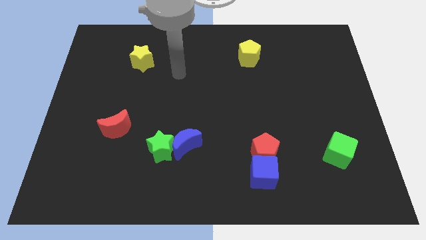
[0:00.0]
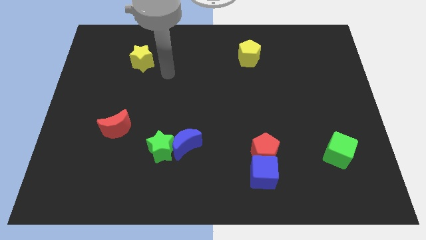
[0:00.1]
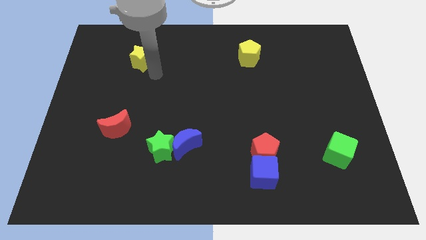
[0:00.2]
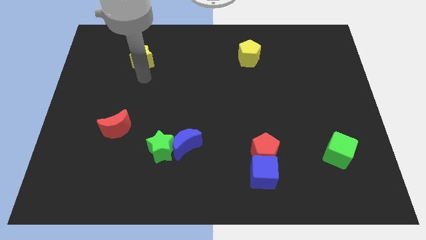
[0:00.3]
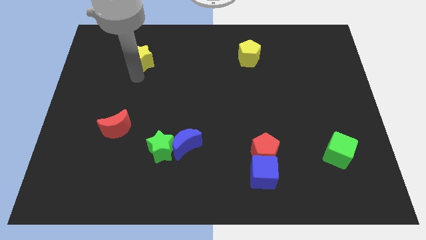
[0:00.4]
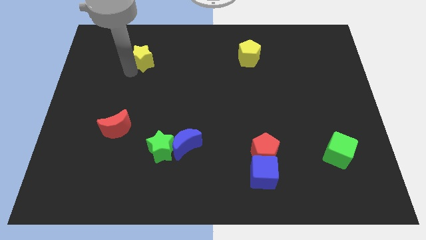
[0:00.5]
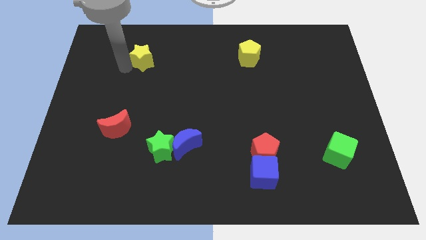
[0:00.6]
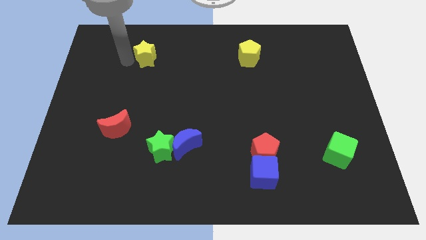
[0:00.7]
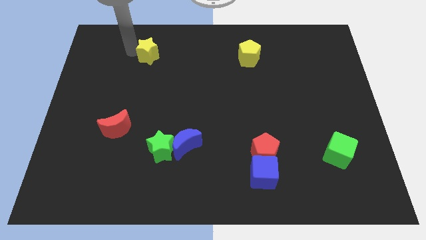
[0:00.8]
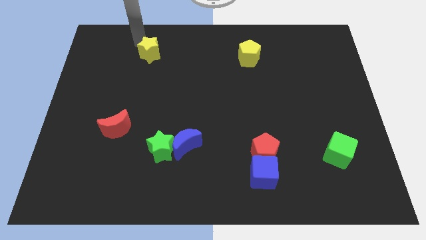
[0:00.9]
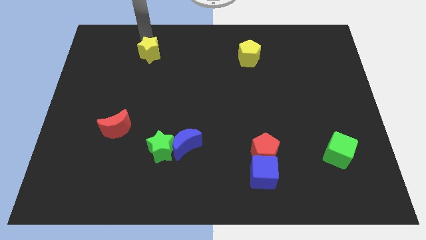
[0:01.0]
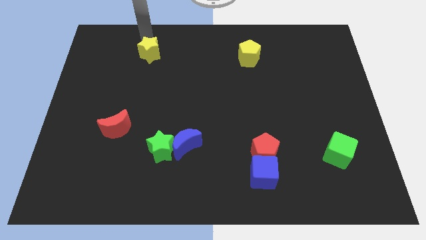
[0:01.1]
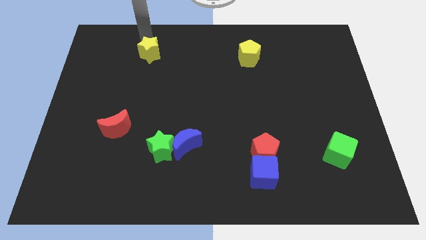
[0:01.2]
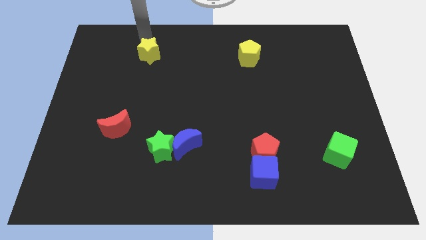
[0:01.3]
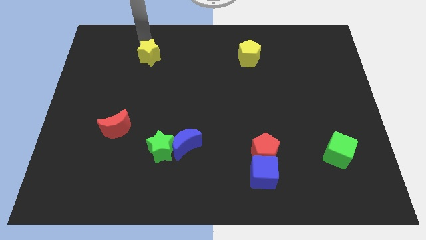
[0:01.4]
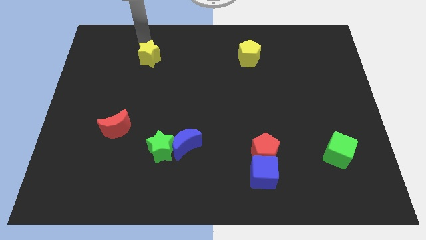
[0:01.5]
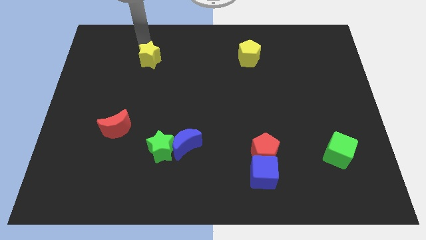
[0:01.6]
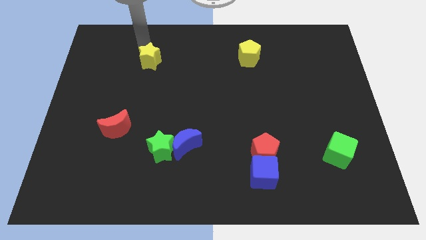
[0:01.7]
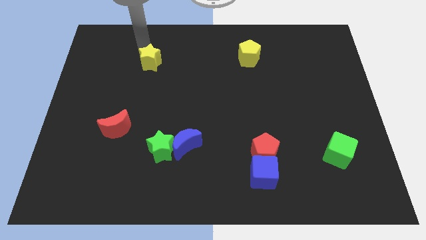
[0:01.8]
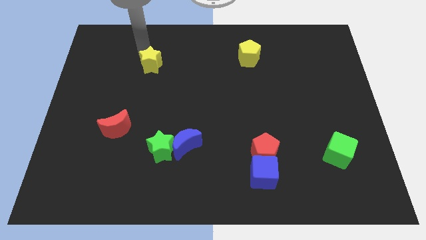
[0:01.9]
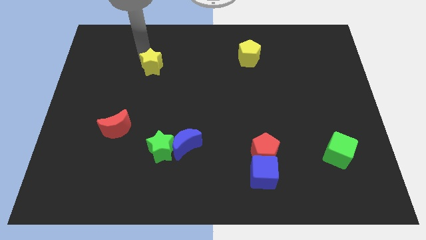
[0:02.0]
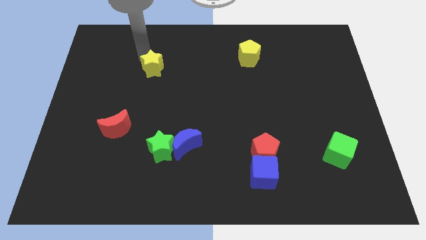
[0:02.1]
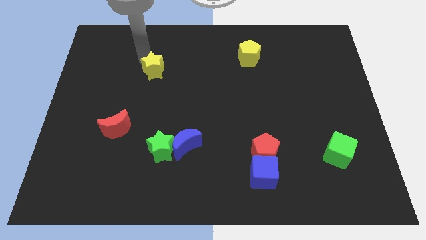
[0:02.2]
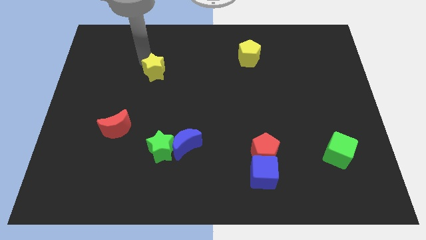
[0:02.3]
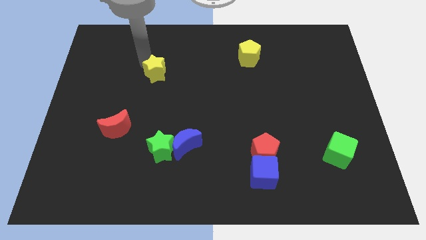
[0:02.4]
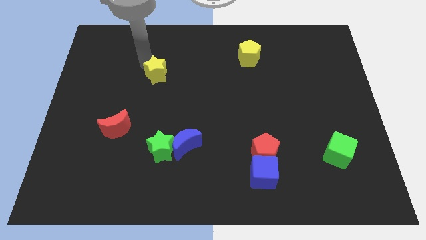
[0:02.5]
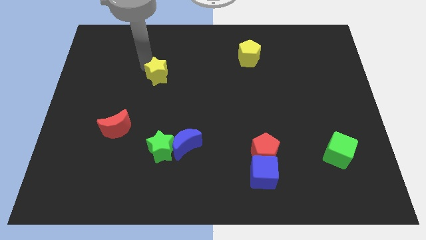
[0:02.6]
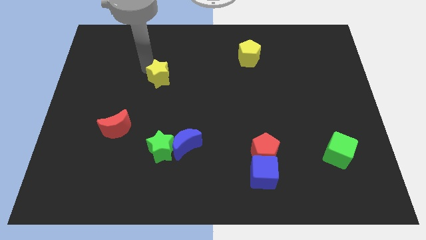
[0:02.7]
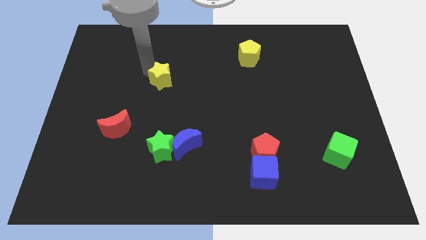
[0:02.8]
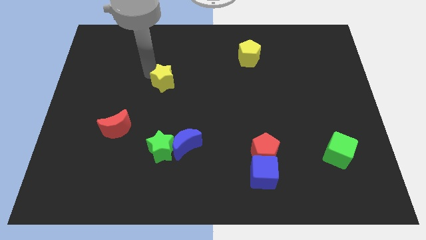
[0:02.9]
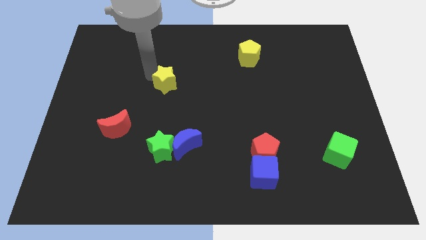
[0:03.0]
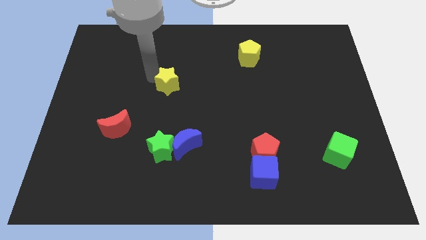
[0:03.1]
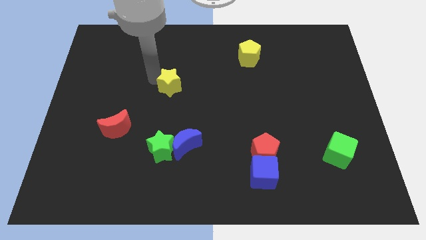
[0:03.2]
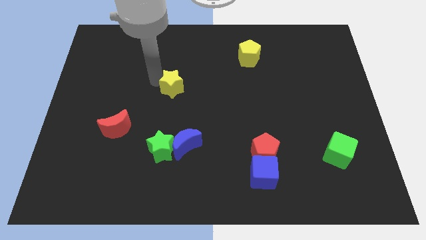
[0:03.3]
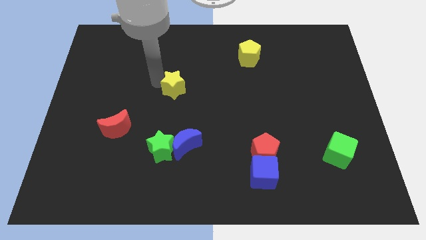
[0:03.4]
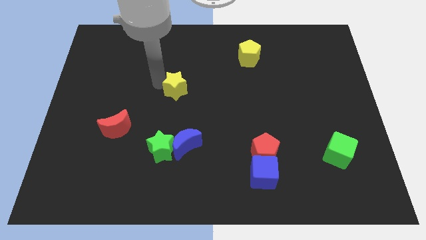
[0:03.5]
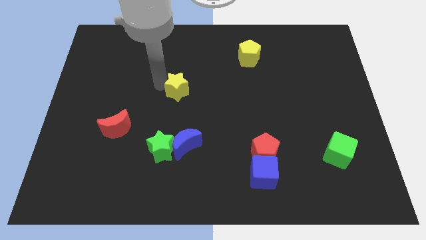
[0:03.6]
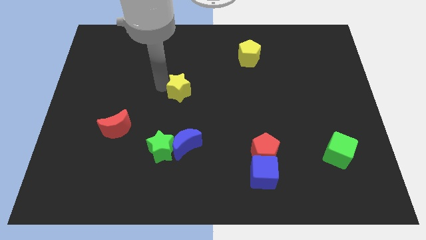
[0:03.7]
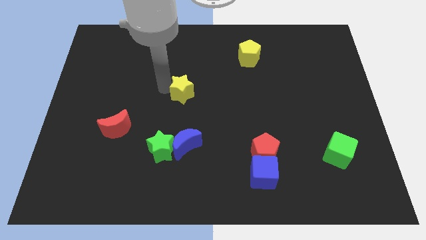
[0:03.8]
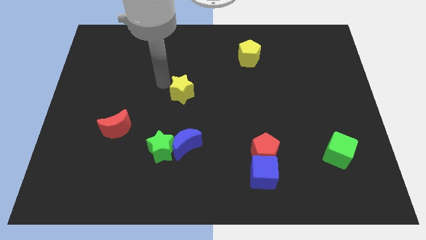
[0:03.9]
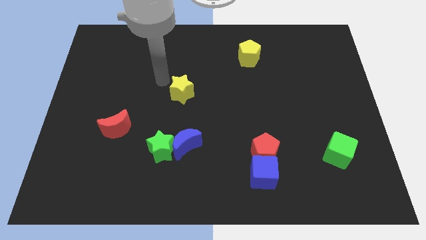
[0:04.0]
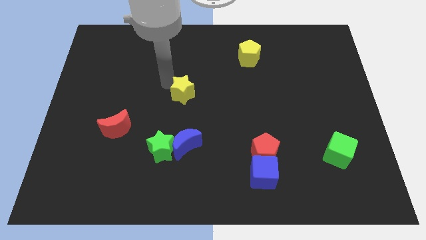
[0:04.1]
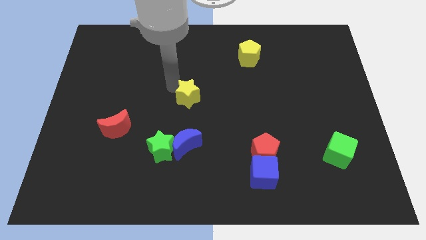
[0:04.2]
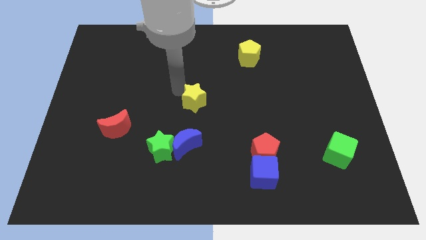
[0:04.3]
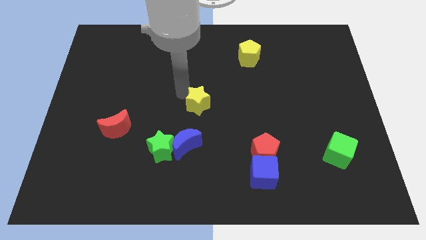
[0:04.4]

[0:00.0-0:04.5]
move the yellow star down and to the right

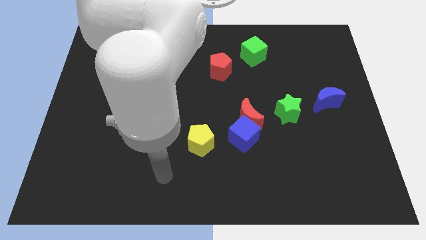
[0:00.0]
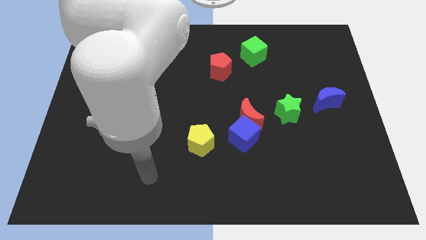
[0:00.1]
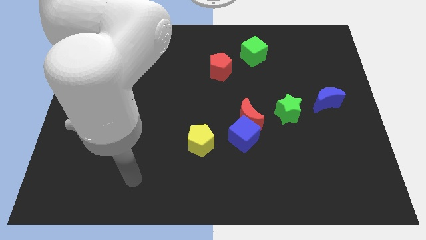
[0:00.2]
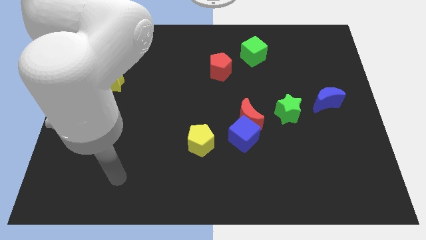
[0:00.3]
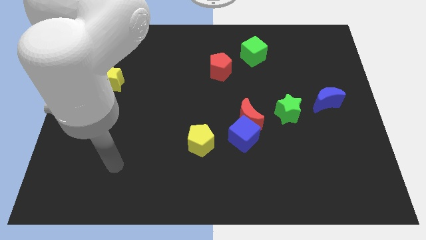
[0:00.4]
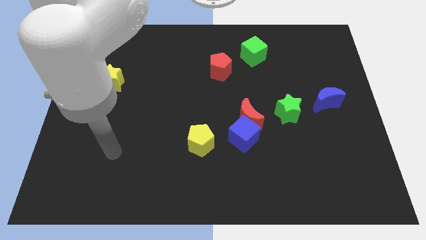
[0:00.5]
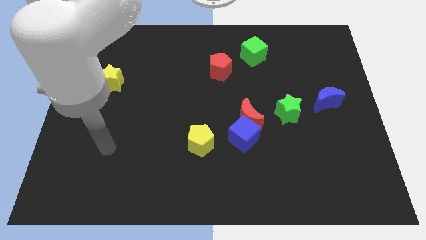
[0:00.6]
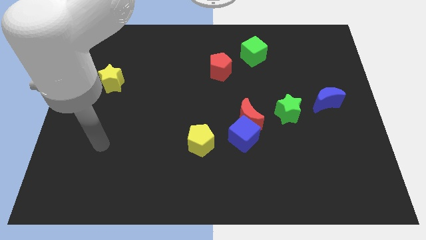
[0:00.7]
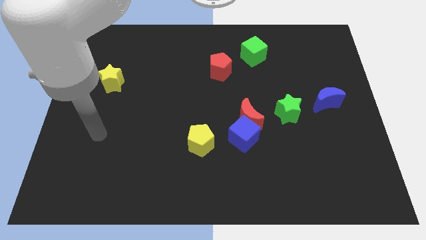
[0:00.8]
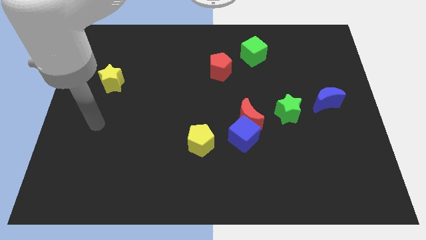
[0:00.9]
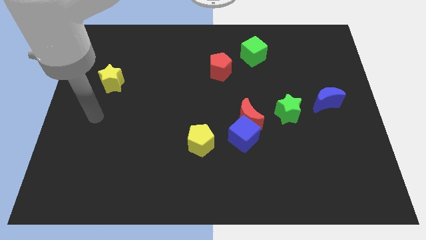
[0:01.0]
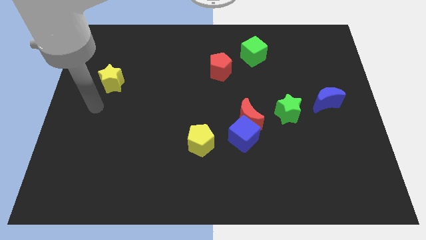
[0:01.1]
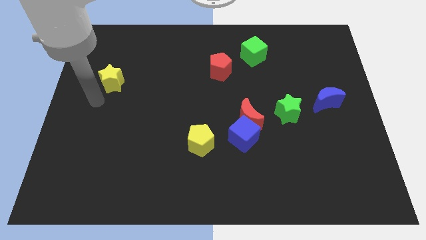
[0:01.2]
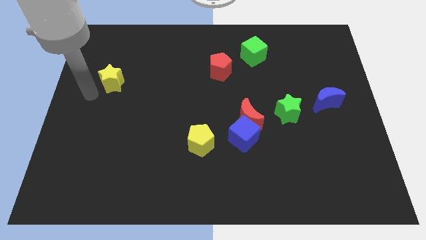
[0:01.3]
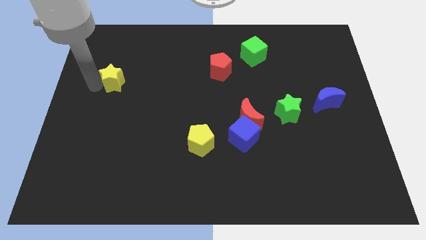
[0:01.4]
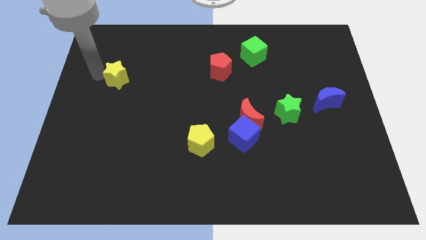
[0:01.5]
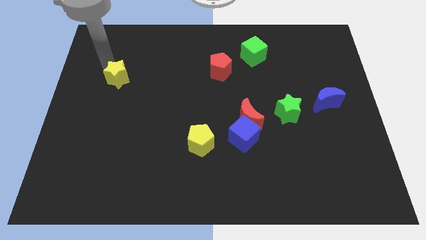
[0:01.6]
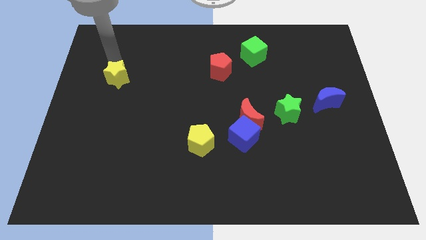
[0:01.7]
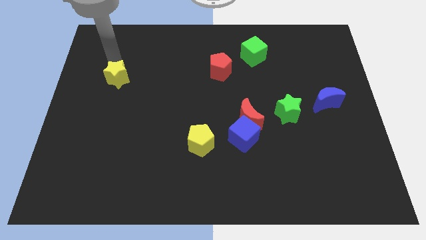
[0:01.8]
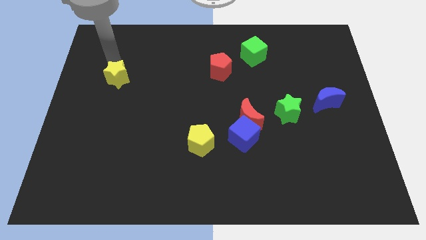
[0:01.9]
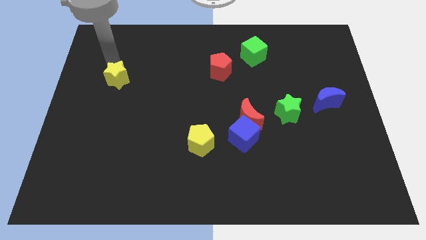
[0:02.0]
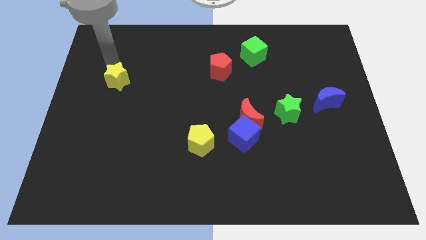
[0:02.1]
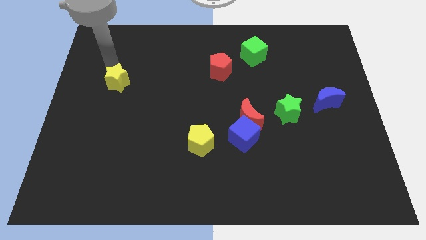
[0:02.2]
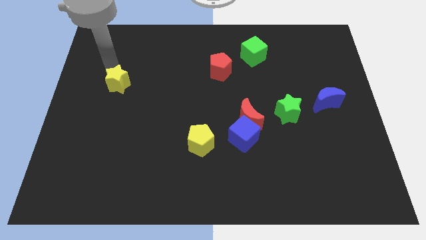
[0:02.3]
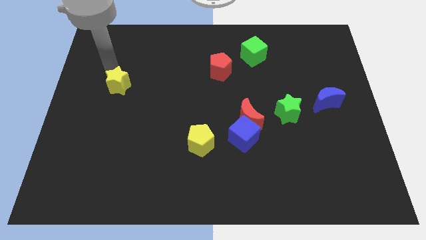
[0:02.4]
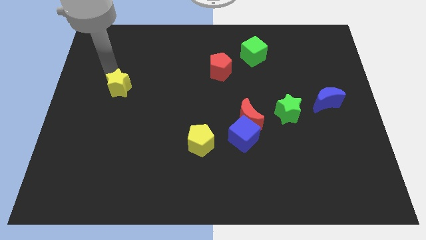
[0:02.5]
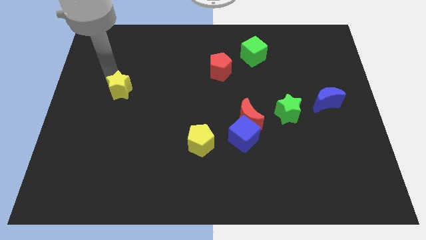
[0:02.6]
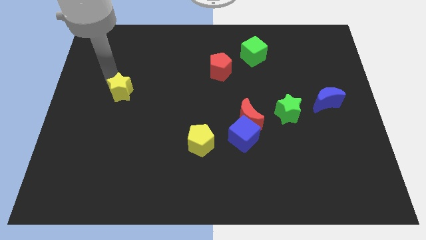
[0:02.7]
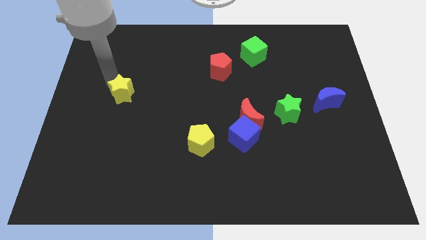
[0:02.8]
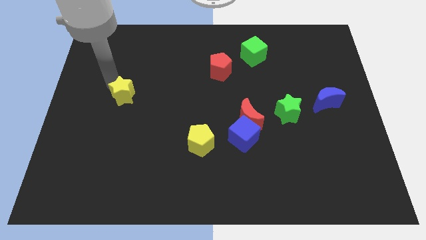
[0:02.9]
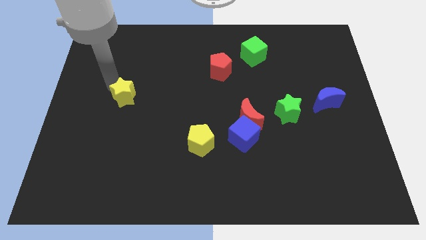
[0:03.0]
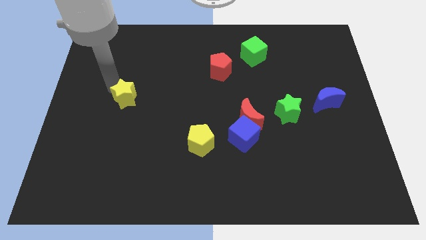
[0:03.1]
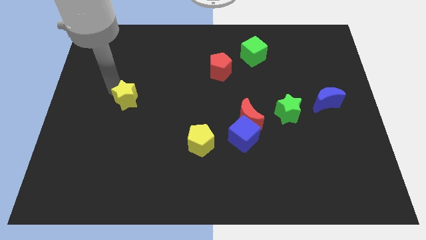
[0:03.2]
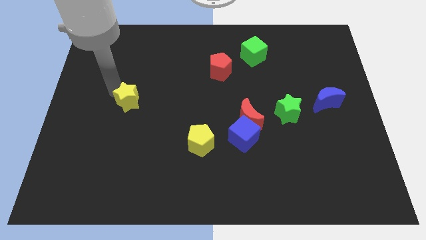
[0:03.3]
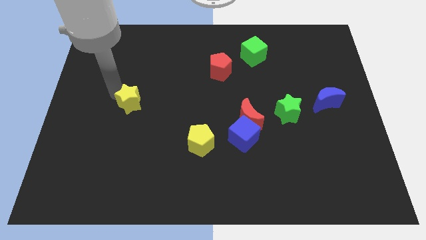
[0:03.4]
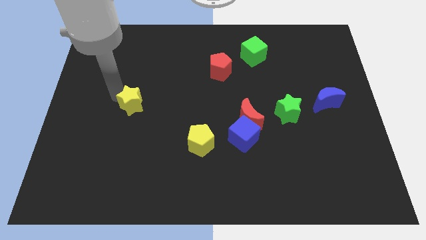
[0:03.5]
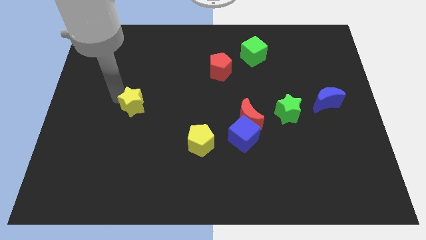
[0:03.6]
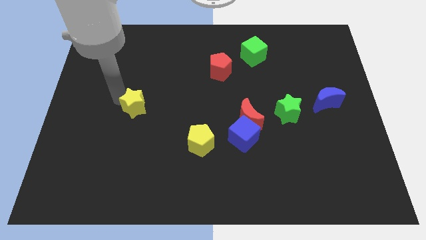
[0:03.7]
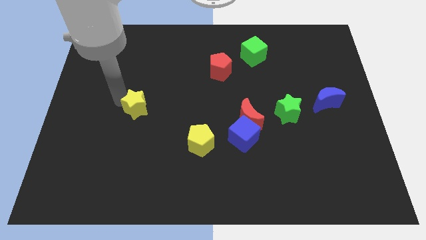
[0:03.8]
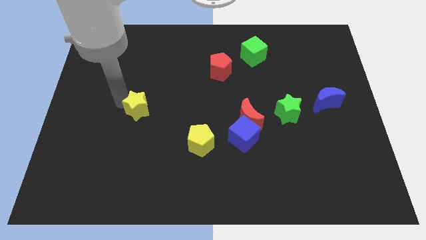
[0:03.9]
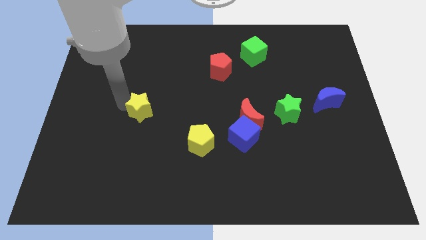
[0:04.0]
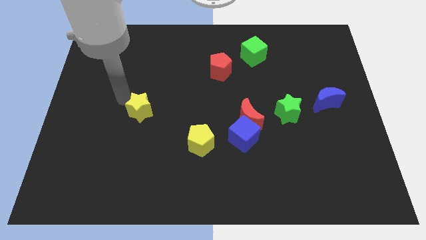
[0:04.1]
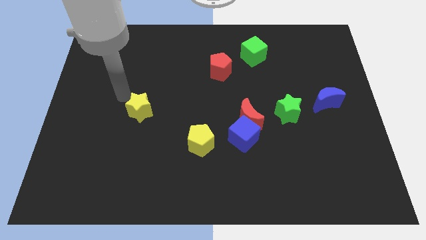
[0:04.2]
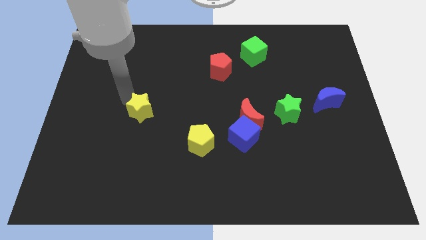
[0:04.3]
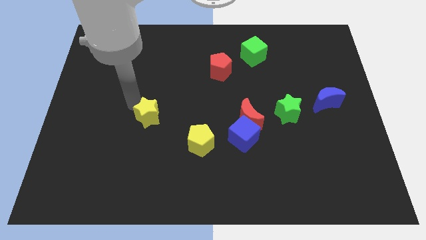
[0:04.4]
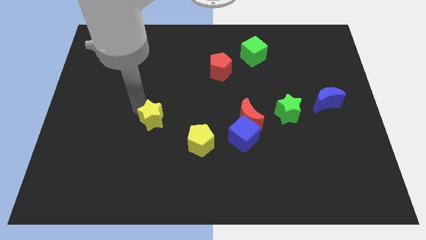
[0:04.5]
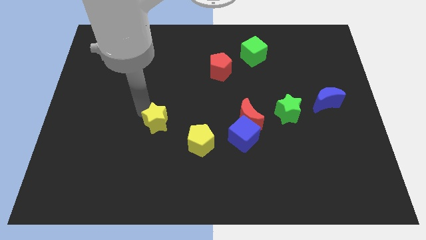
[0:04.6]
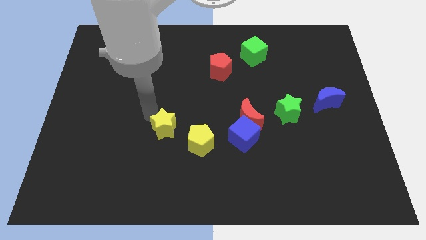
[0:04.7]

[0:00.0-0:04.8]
move the yellow star diagonally down and right
